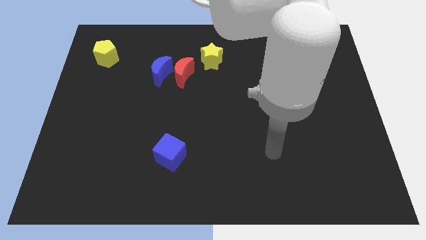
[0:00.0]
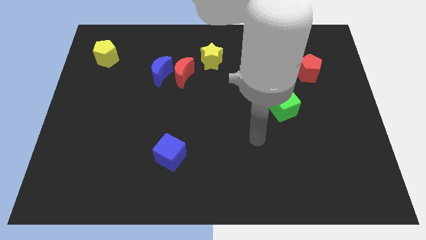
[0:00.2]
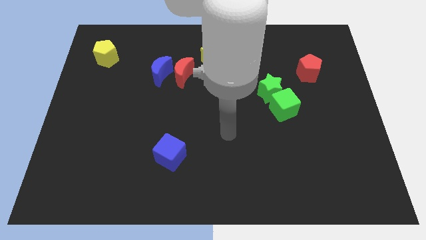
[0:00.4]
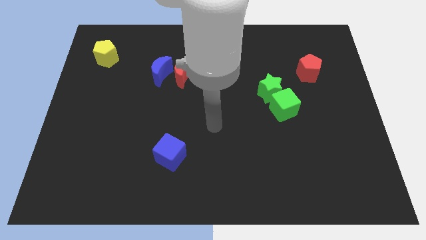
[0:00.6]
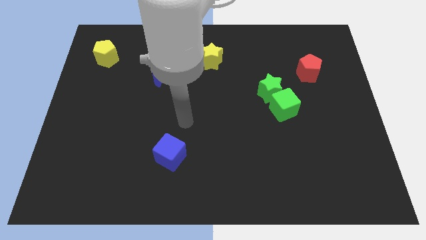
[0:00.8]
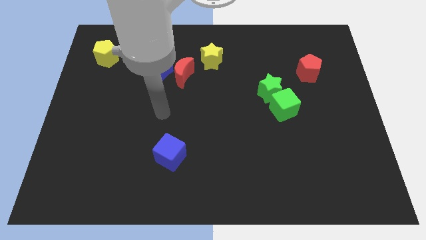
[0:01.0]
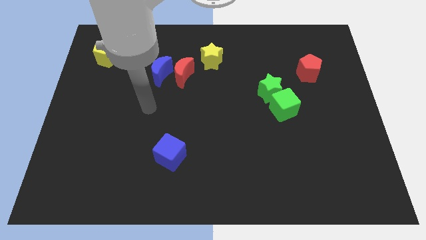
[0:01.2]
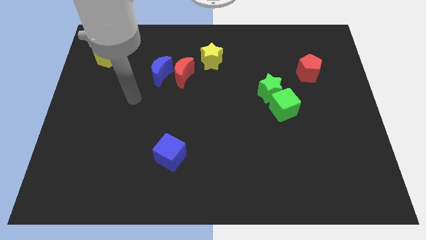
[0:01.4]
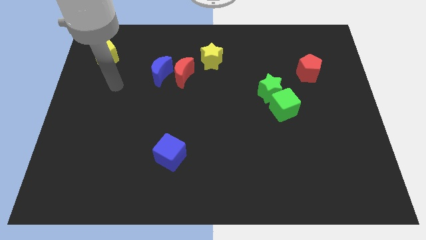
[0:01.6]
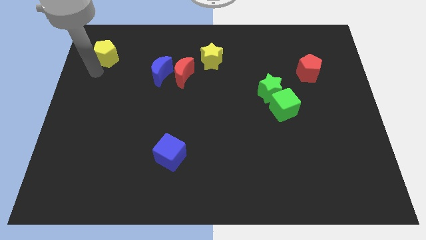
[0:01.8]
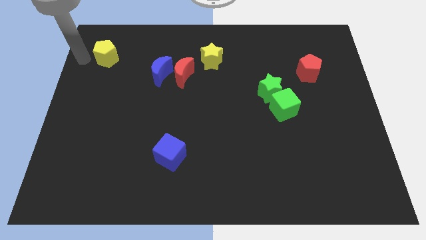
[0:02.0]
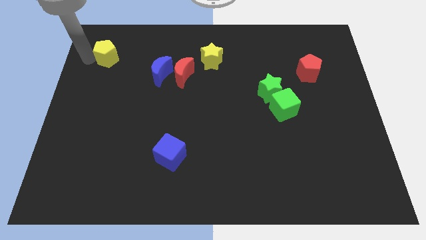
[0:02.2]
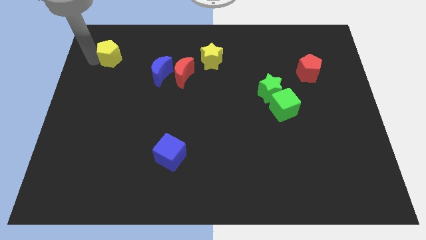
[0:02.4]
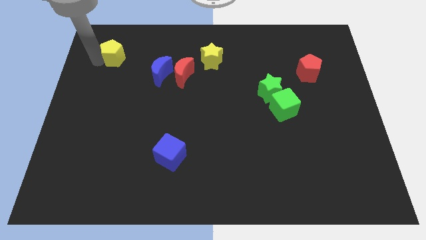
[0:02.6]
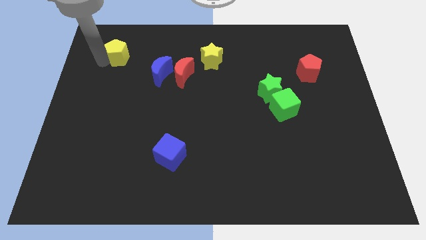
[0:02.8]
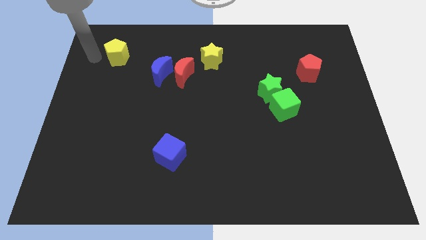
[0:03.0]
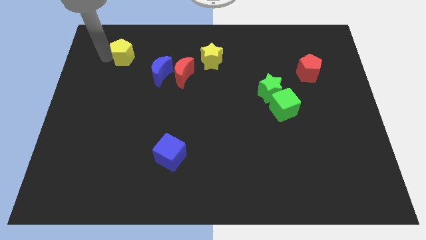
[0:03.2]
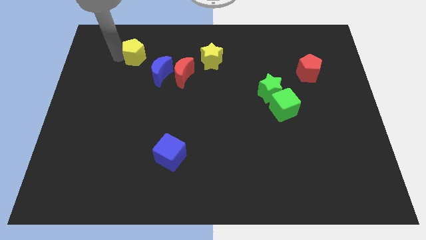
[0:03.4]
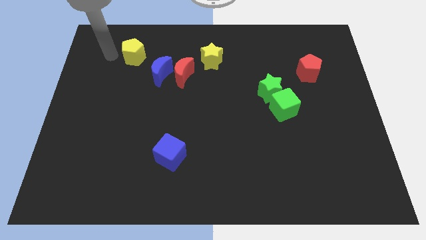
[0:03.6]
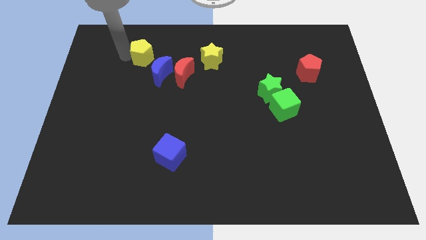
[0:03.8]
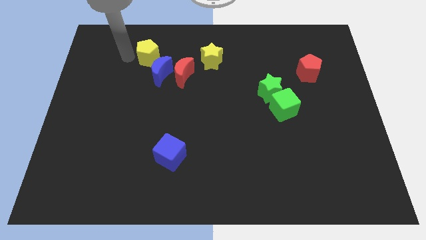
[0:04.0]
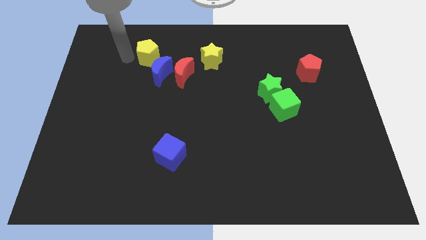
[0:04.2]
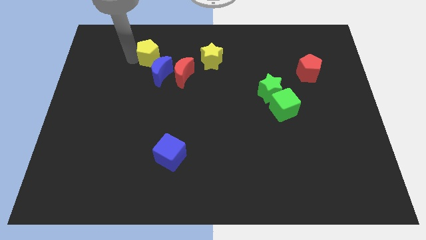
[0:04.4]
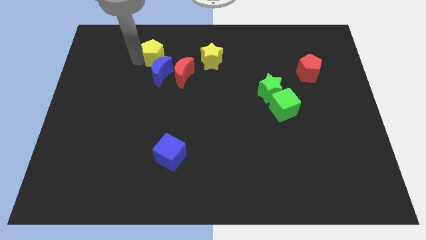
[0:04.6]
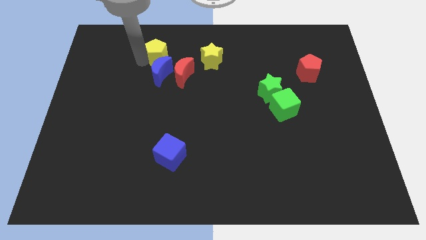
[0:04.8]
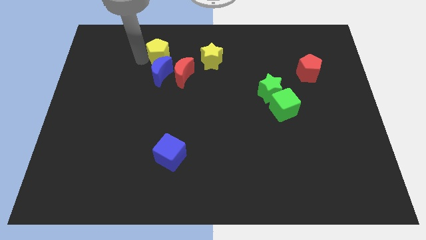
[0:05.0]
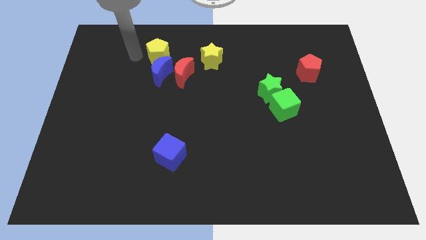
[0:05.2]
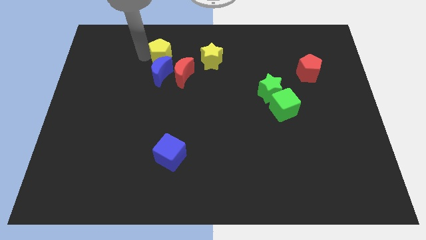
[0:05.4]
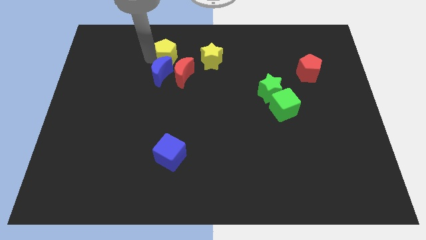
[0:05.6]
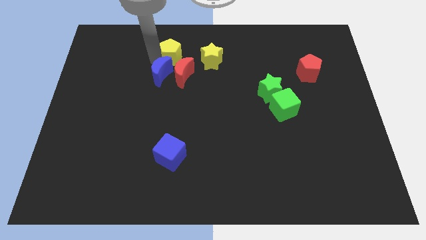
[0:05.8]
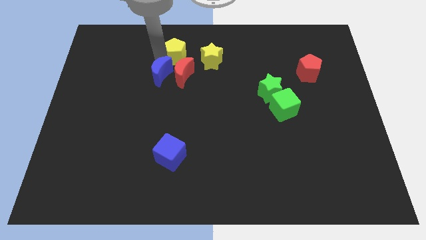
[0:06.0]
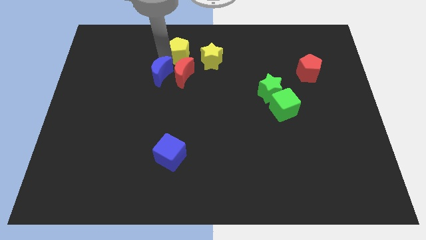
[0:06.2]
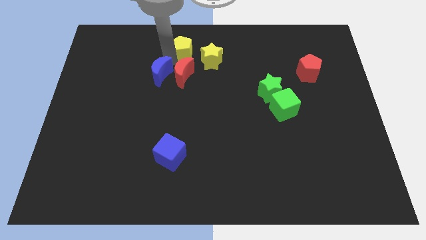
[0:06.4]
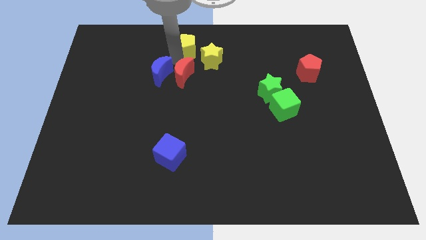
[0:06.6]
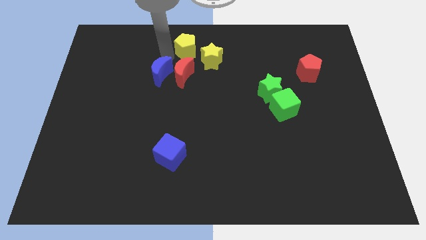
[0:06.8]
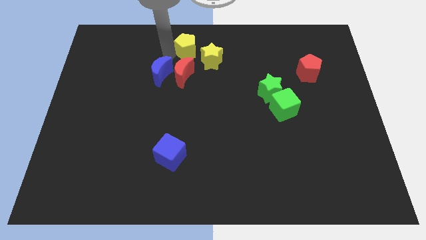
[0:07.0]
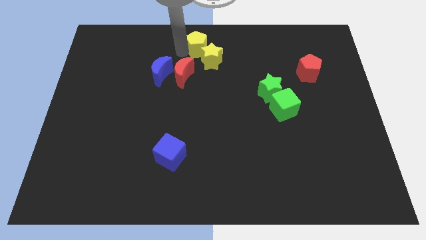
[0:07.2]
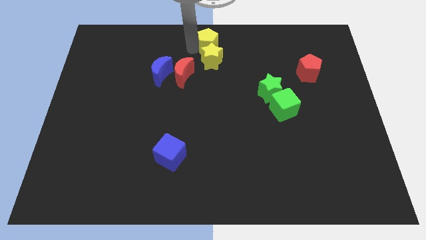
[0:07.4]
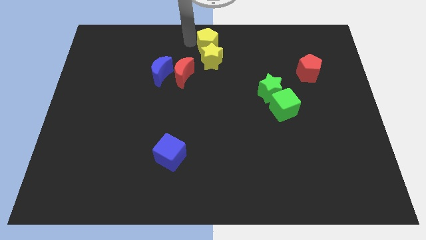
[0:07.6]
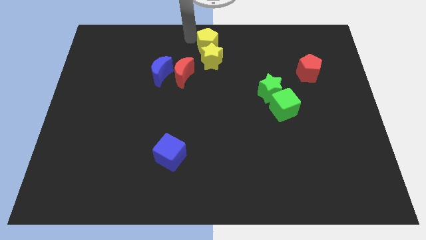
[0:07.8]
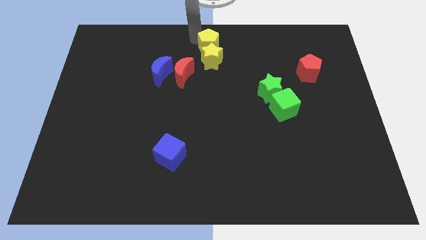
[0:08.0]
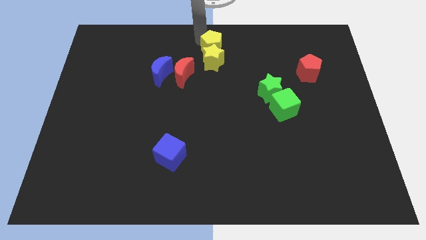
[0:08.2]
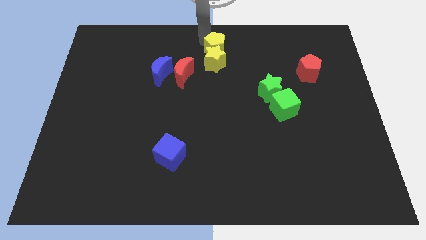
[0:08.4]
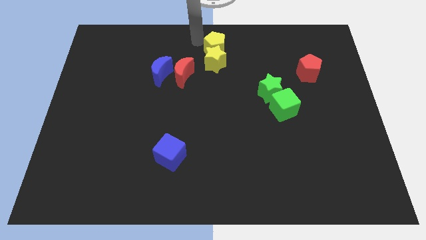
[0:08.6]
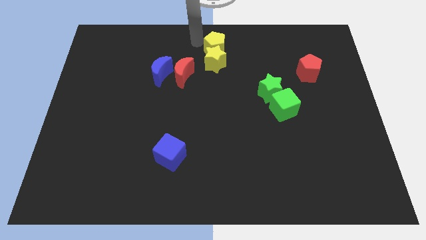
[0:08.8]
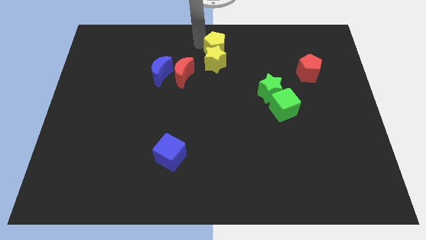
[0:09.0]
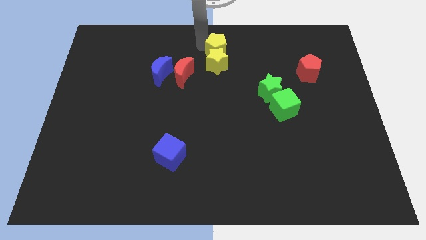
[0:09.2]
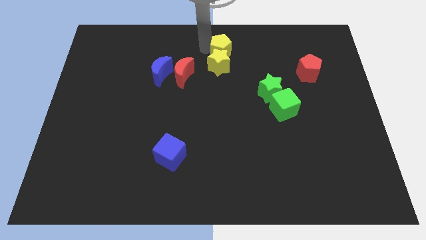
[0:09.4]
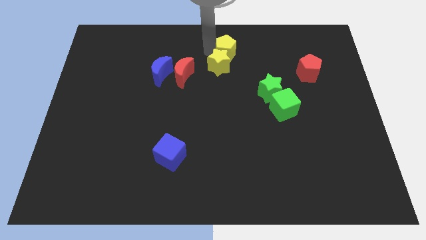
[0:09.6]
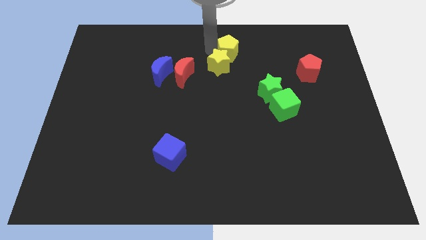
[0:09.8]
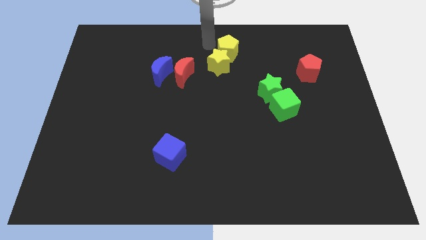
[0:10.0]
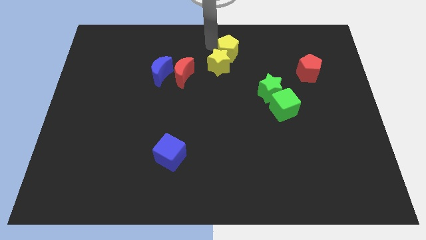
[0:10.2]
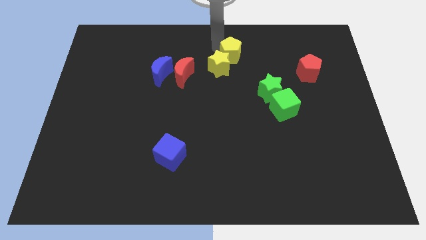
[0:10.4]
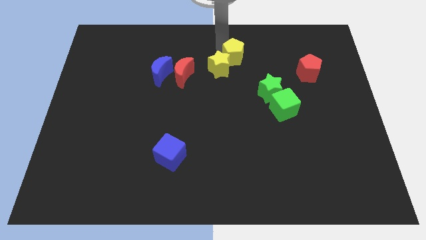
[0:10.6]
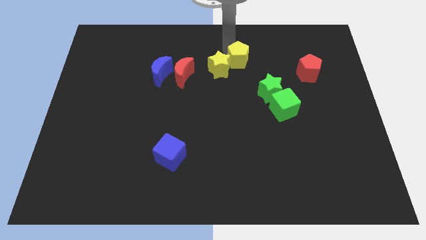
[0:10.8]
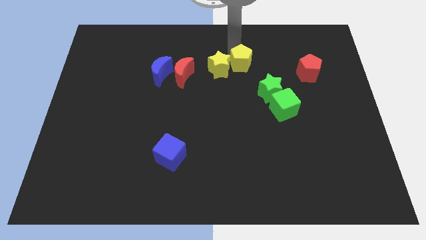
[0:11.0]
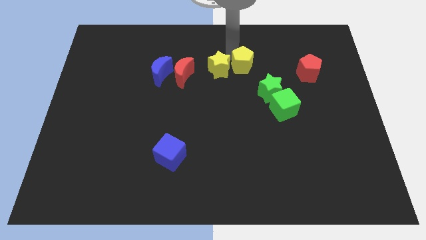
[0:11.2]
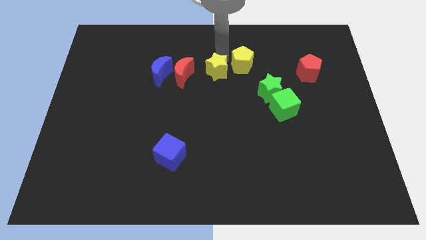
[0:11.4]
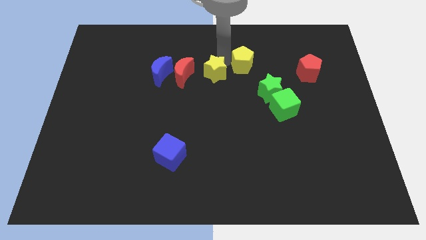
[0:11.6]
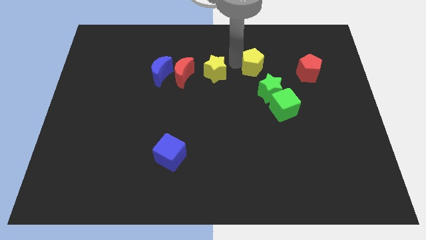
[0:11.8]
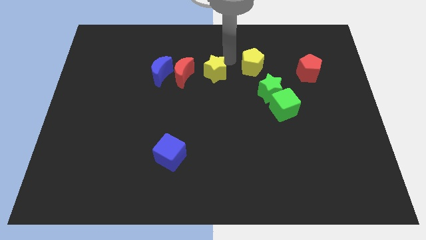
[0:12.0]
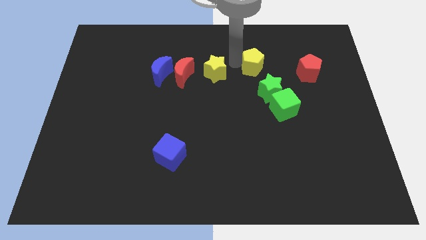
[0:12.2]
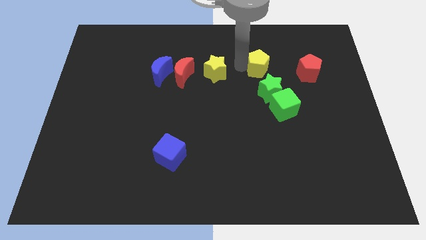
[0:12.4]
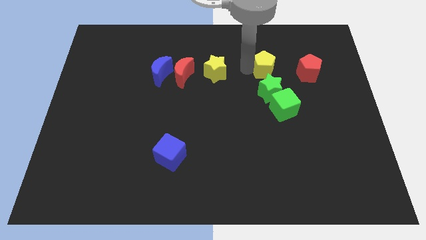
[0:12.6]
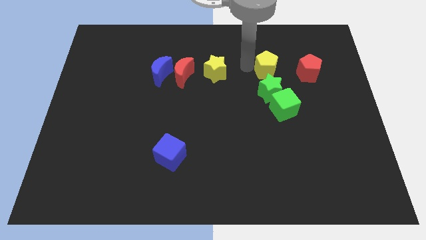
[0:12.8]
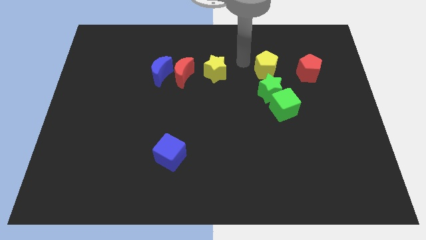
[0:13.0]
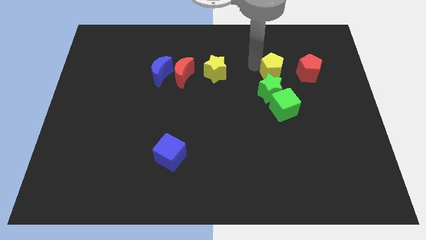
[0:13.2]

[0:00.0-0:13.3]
slide the yellow pentagon to the top right side of the green star
